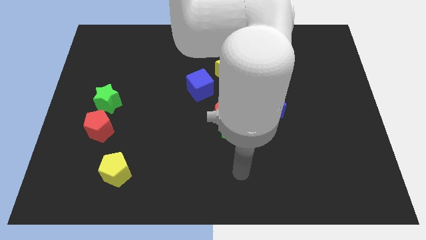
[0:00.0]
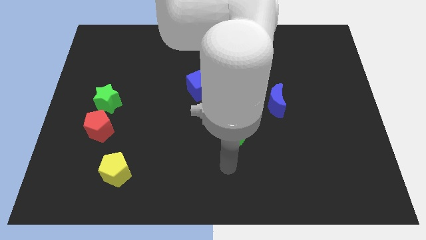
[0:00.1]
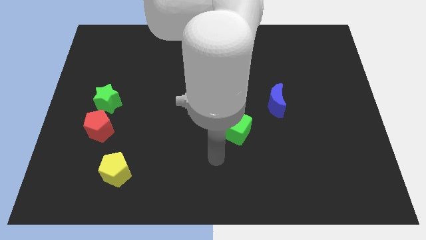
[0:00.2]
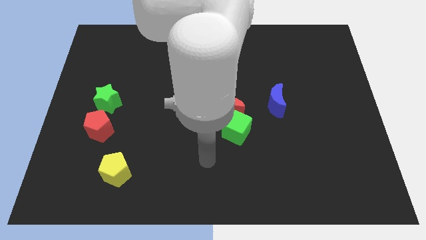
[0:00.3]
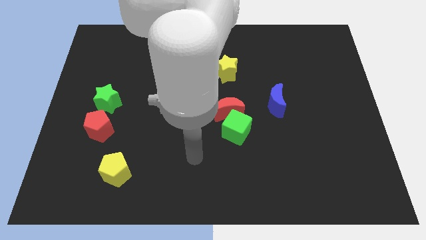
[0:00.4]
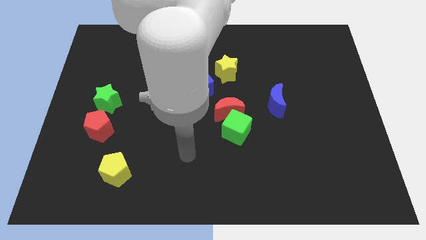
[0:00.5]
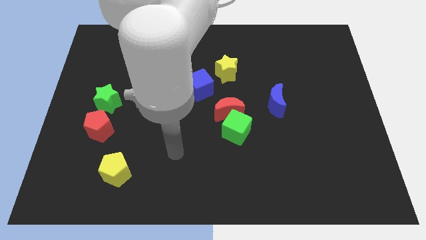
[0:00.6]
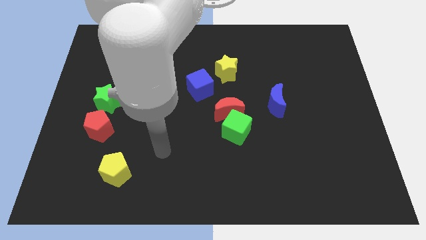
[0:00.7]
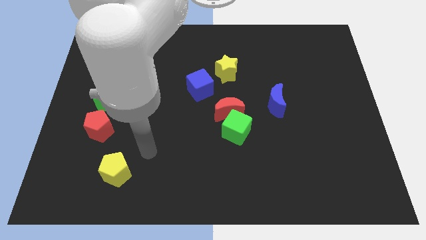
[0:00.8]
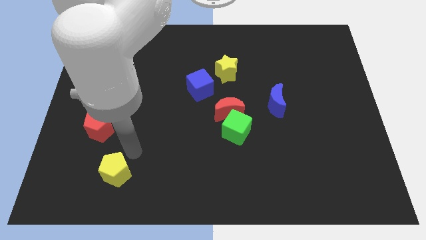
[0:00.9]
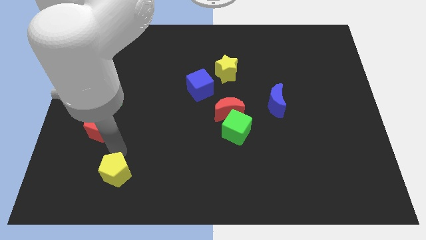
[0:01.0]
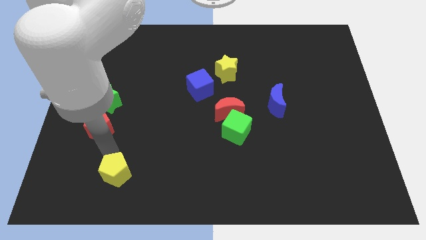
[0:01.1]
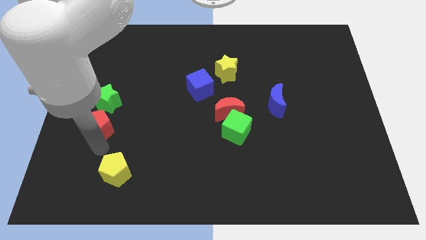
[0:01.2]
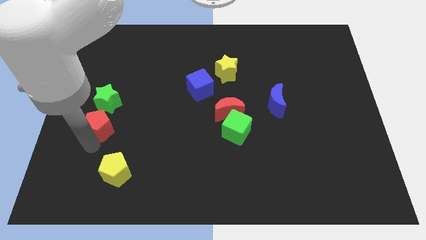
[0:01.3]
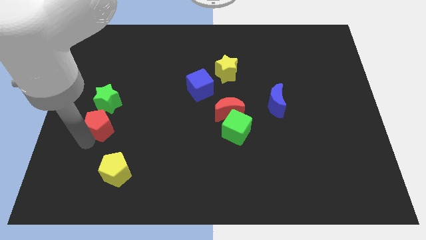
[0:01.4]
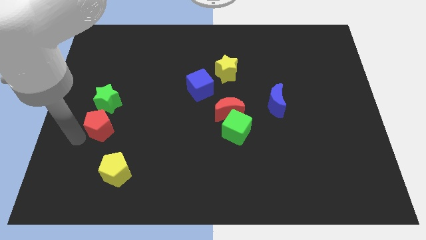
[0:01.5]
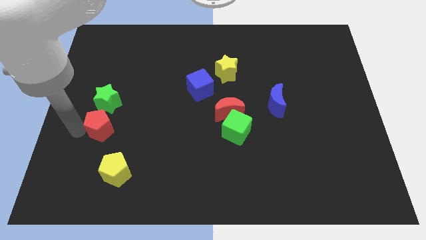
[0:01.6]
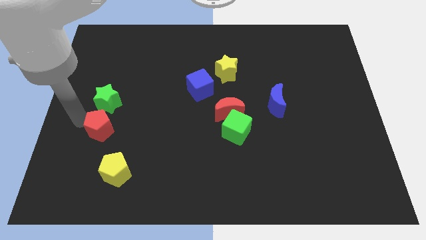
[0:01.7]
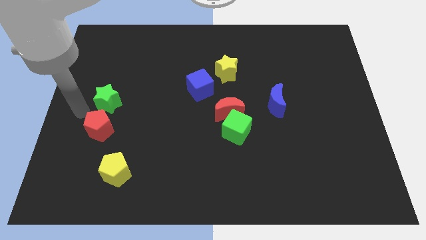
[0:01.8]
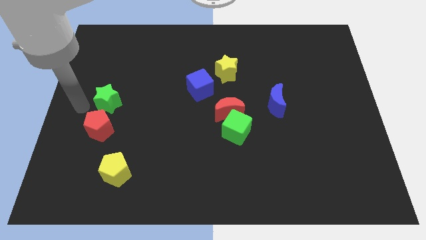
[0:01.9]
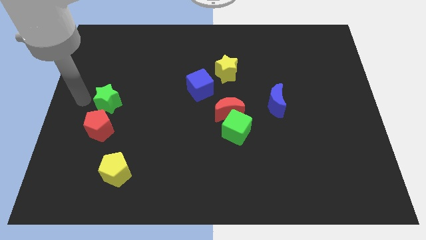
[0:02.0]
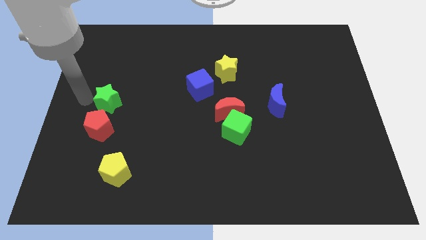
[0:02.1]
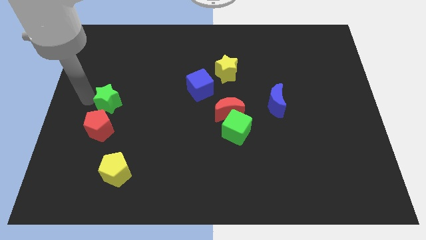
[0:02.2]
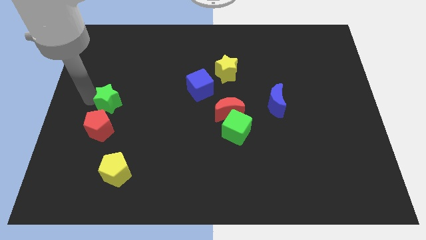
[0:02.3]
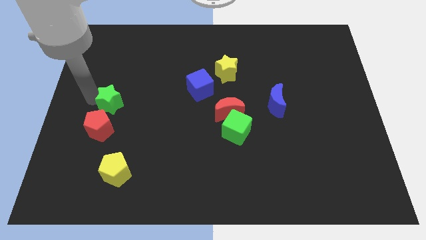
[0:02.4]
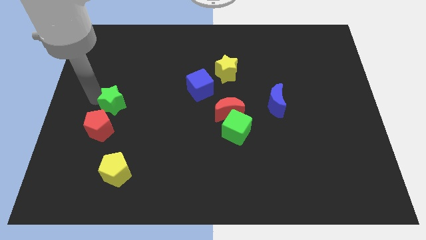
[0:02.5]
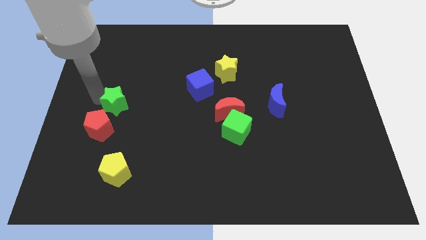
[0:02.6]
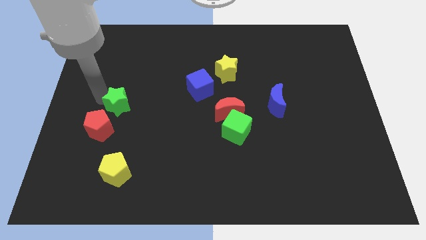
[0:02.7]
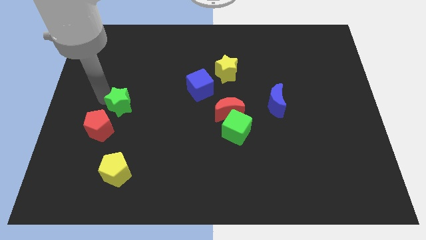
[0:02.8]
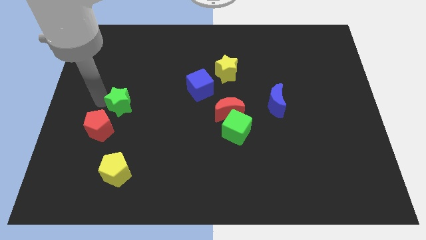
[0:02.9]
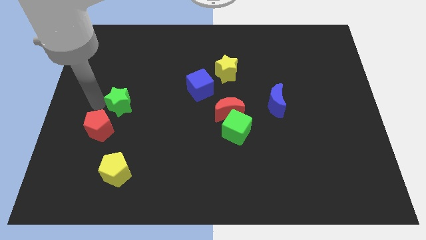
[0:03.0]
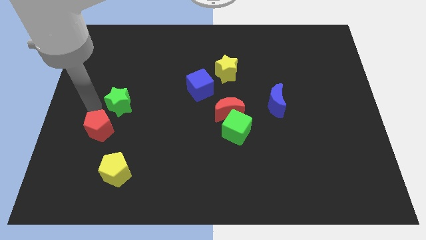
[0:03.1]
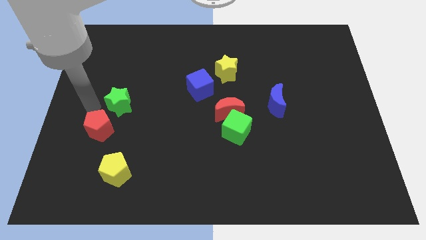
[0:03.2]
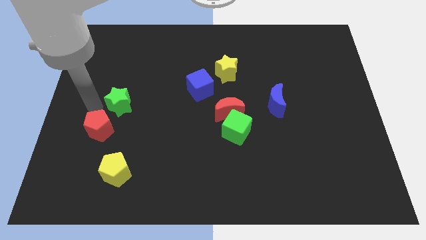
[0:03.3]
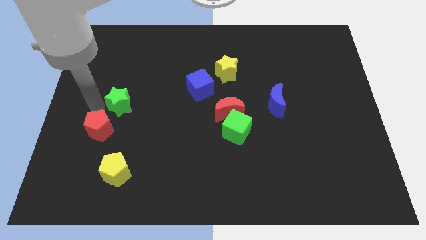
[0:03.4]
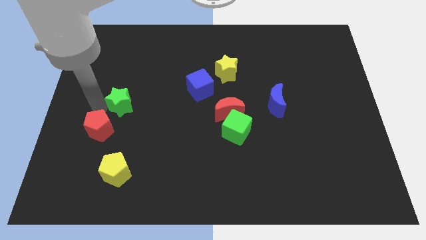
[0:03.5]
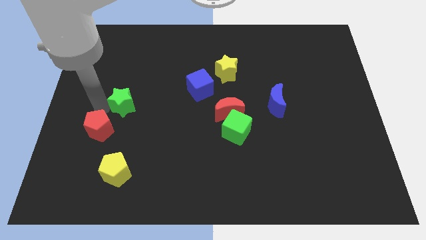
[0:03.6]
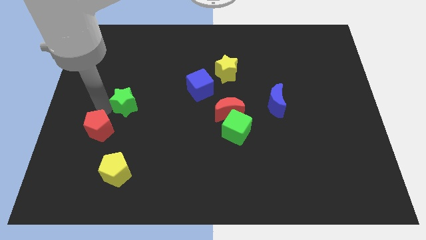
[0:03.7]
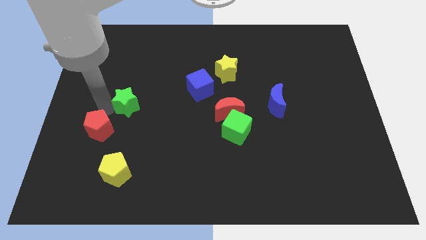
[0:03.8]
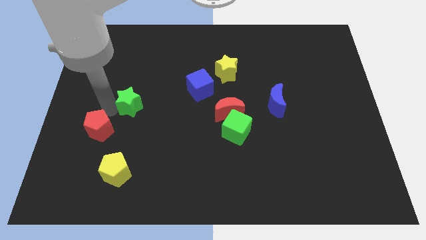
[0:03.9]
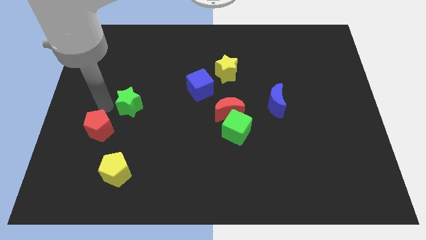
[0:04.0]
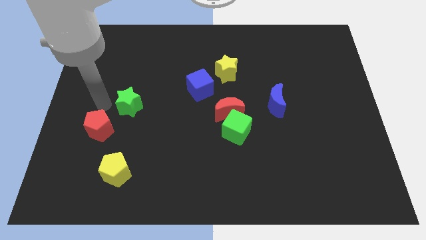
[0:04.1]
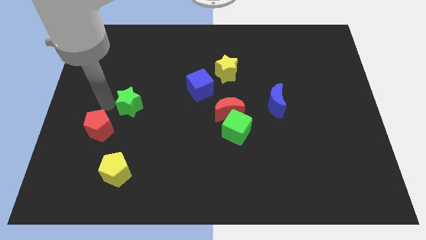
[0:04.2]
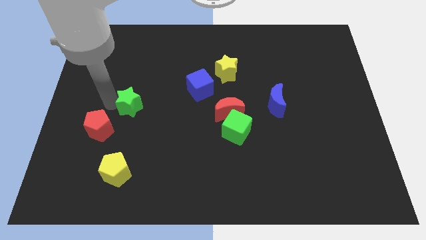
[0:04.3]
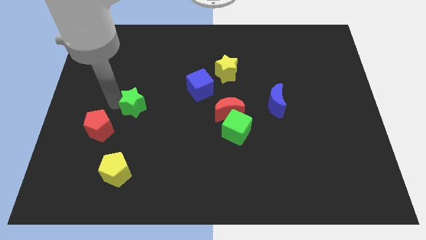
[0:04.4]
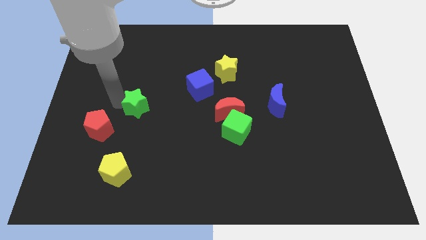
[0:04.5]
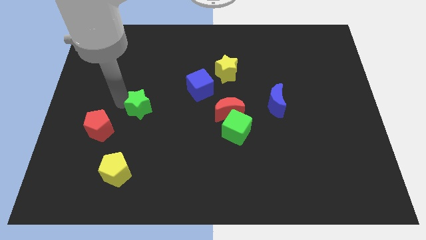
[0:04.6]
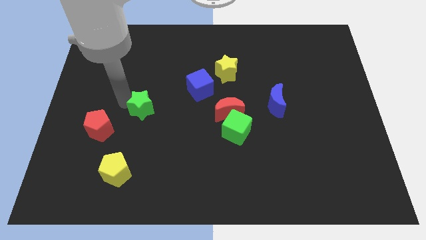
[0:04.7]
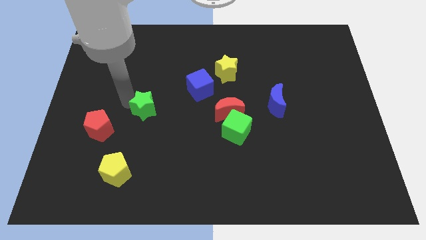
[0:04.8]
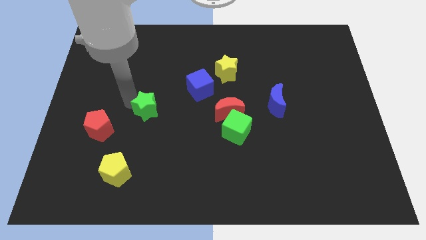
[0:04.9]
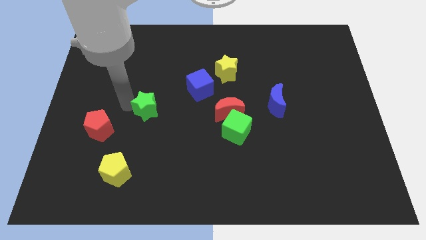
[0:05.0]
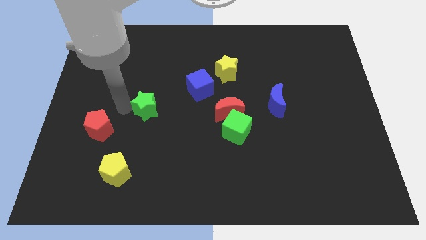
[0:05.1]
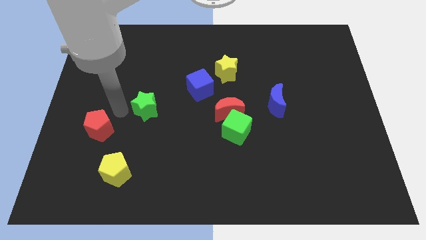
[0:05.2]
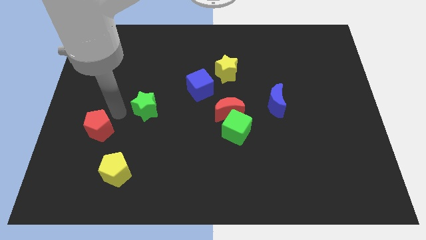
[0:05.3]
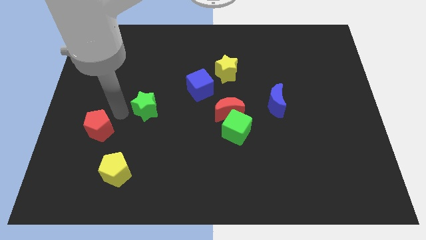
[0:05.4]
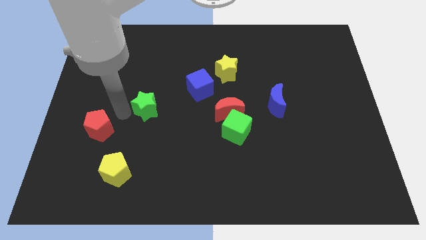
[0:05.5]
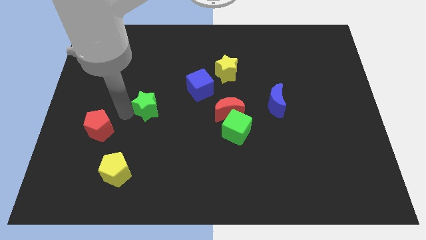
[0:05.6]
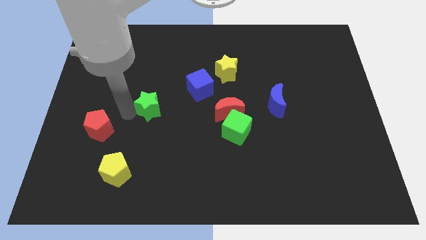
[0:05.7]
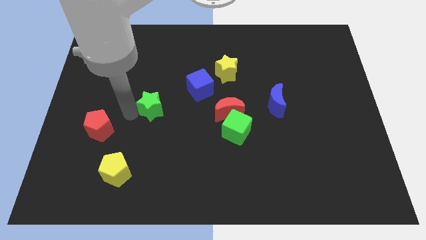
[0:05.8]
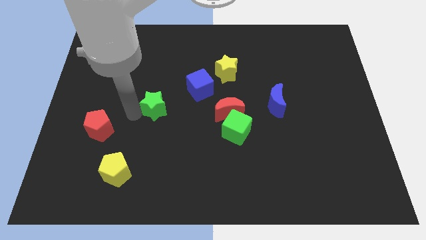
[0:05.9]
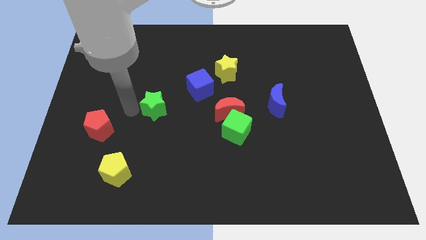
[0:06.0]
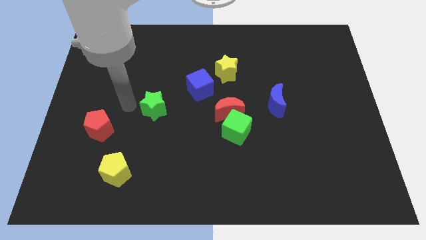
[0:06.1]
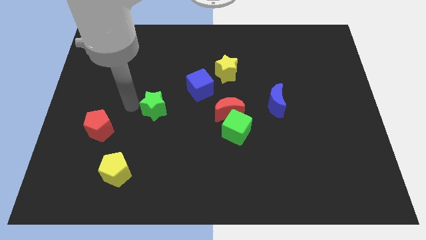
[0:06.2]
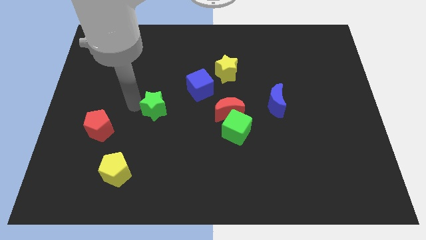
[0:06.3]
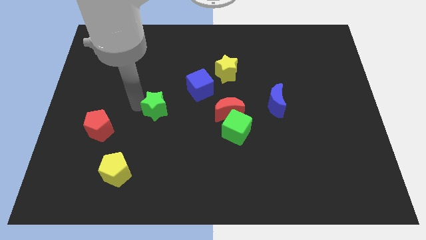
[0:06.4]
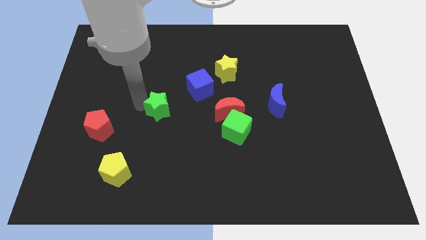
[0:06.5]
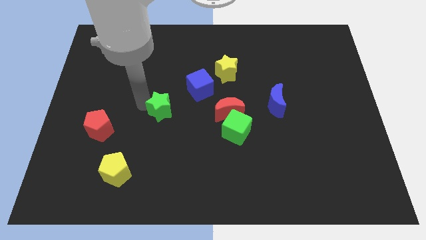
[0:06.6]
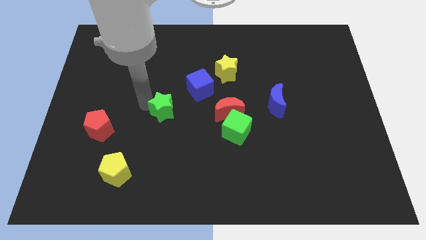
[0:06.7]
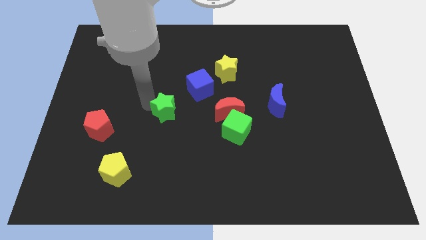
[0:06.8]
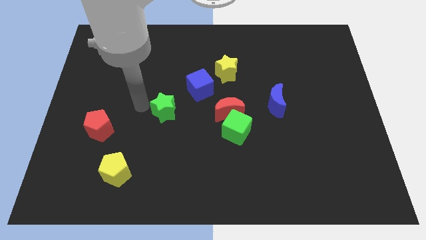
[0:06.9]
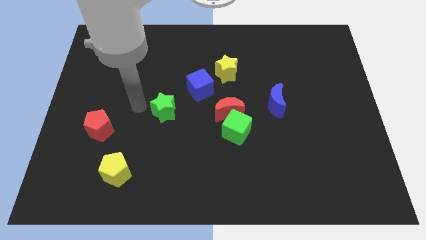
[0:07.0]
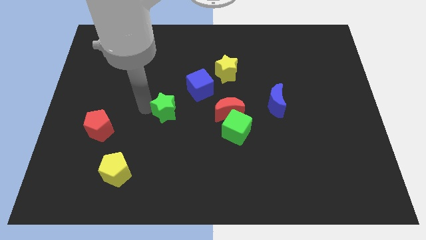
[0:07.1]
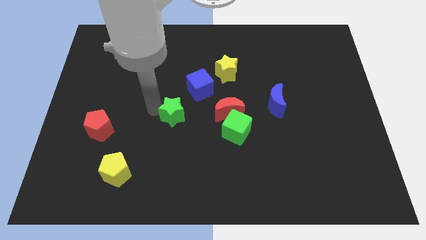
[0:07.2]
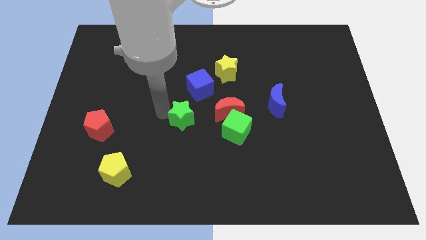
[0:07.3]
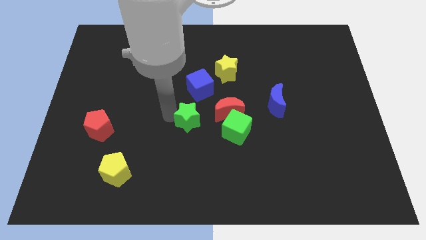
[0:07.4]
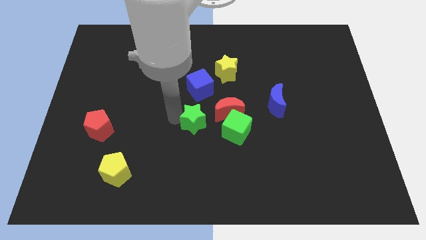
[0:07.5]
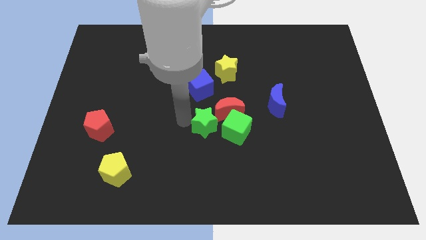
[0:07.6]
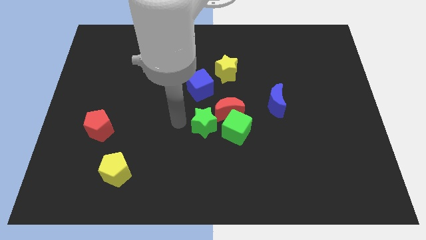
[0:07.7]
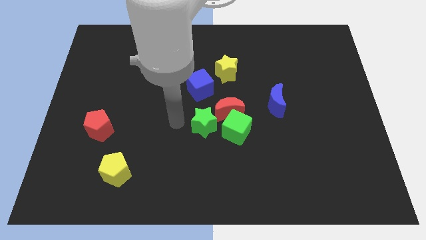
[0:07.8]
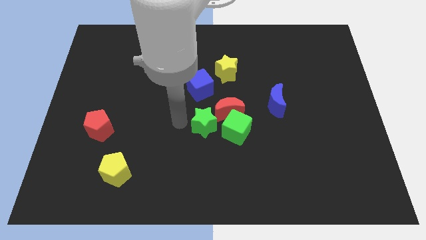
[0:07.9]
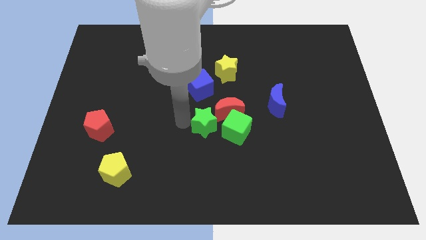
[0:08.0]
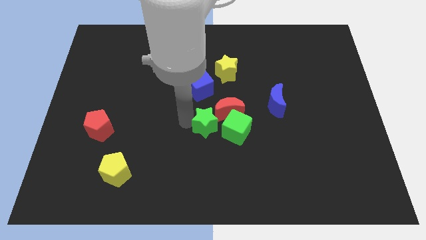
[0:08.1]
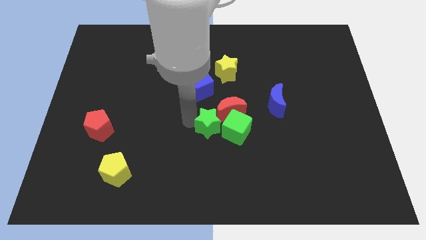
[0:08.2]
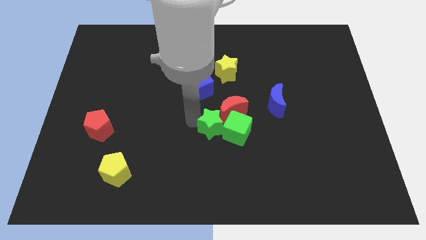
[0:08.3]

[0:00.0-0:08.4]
push the green star close to the green cube
